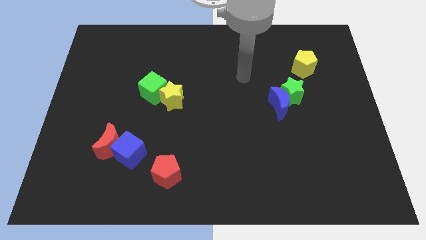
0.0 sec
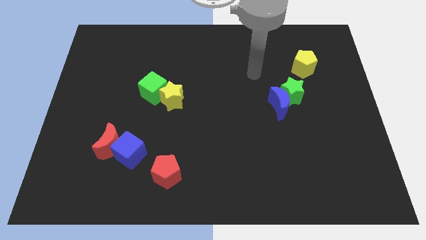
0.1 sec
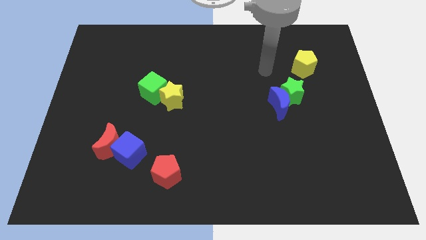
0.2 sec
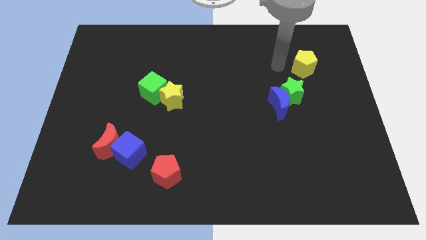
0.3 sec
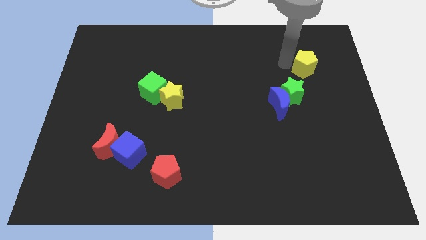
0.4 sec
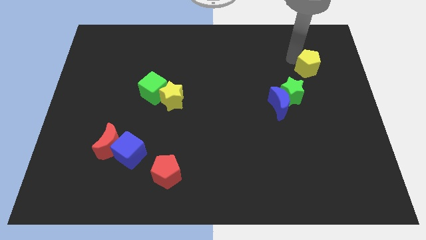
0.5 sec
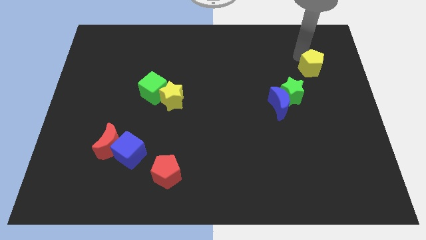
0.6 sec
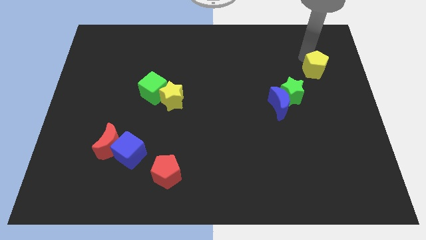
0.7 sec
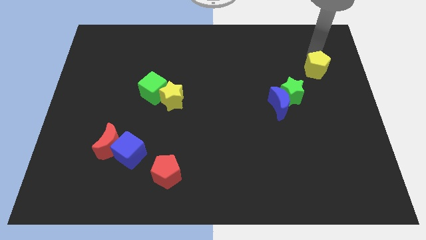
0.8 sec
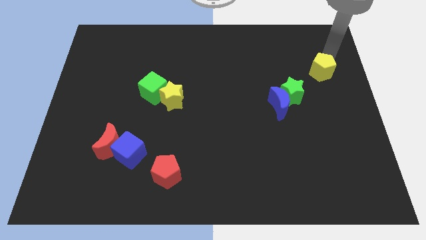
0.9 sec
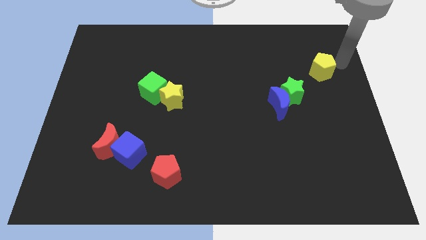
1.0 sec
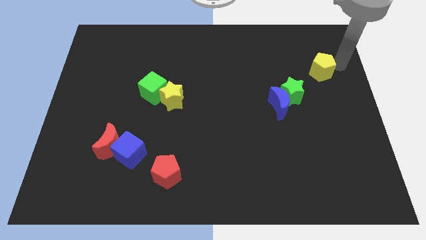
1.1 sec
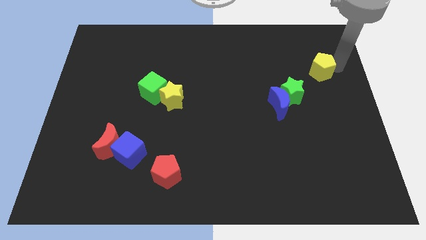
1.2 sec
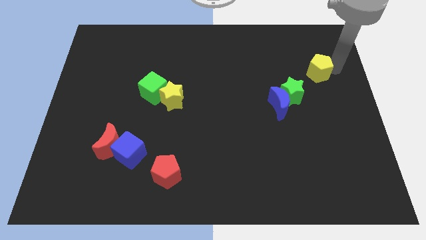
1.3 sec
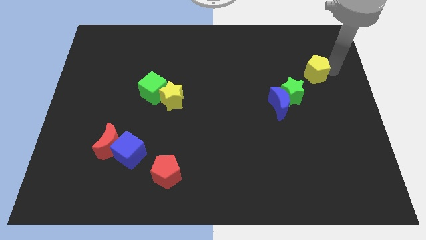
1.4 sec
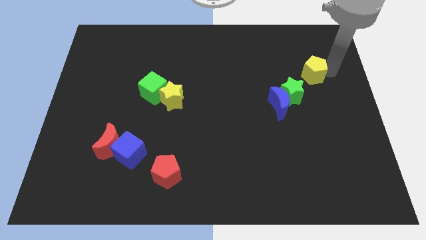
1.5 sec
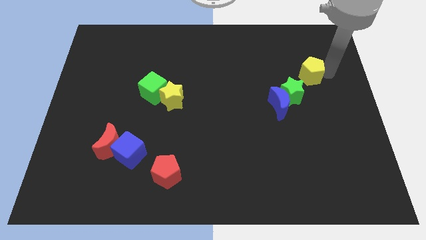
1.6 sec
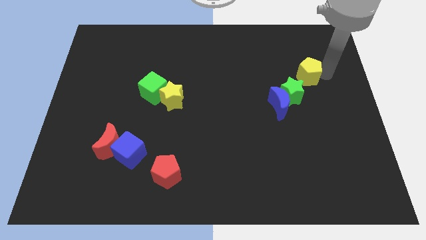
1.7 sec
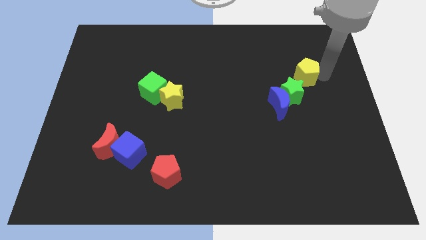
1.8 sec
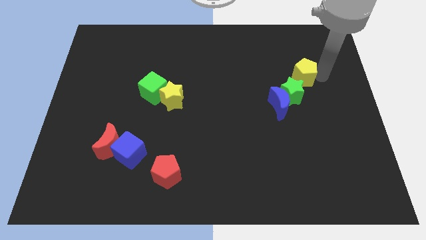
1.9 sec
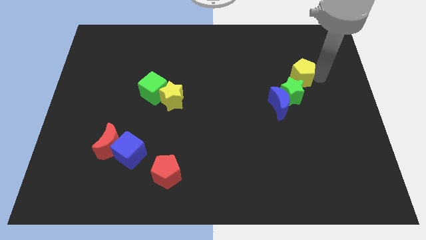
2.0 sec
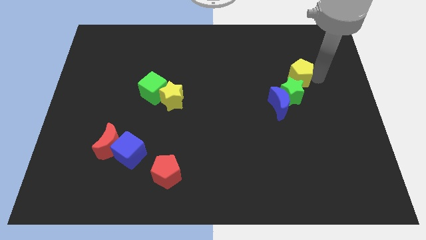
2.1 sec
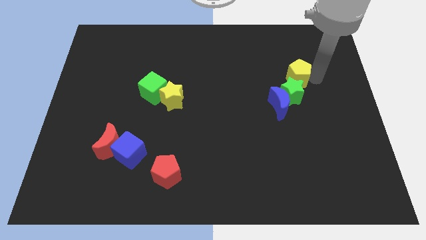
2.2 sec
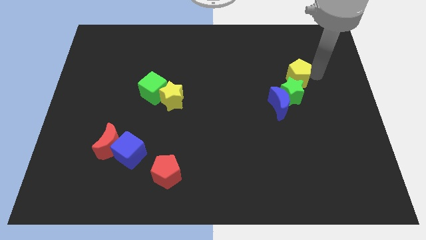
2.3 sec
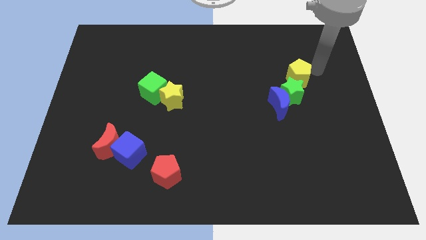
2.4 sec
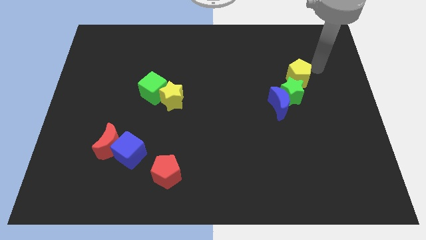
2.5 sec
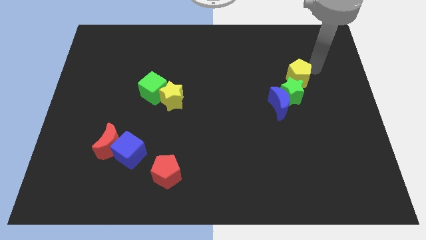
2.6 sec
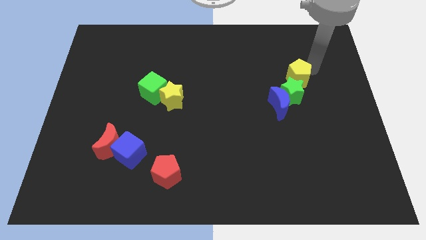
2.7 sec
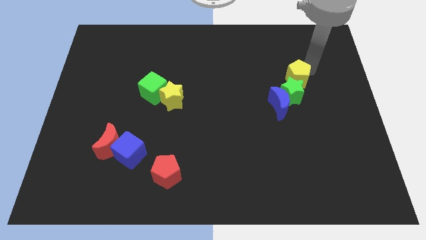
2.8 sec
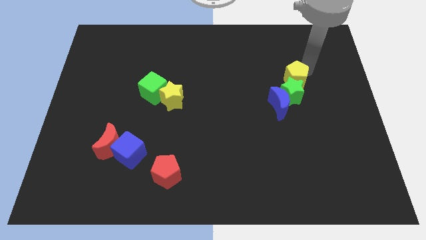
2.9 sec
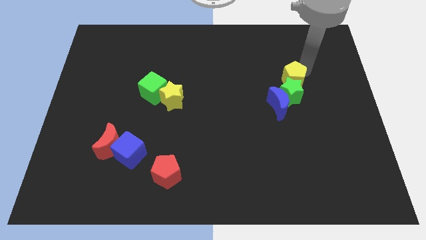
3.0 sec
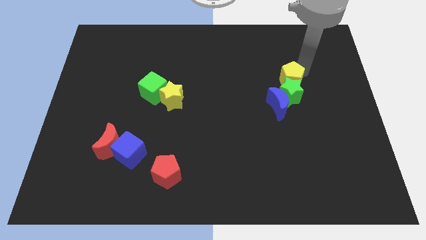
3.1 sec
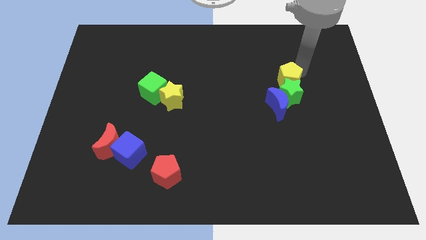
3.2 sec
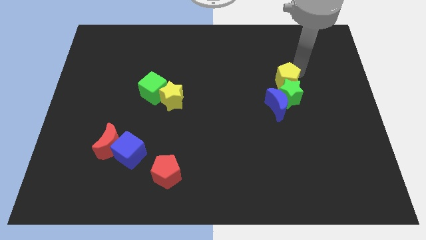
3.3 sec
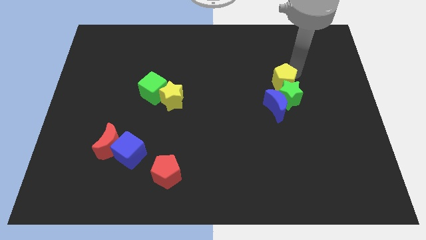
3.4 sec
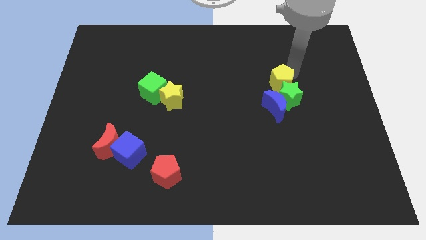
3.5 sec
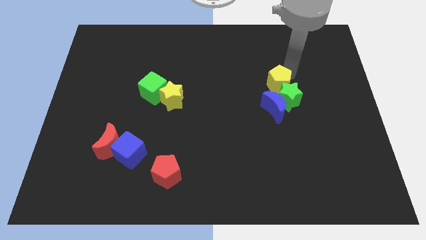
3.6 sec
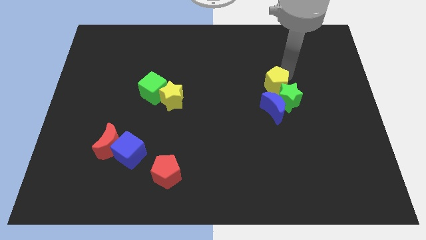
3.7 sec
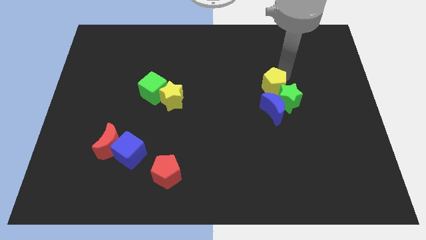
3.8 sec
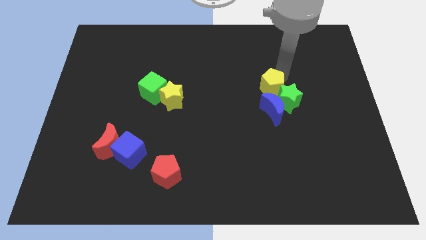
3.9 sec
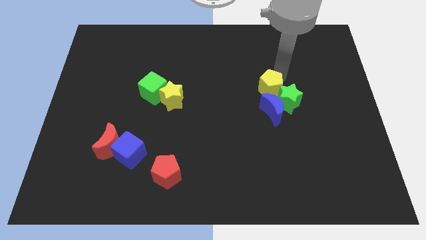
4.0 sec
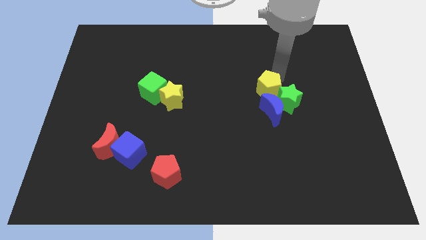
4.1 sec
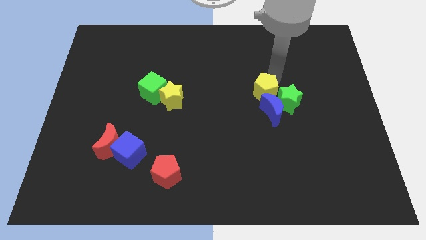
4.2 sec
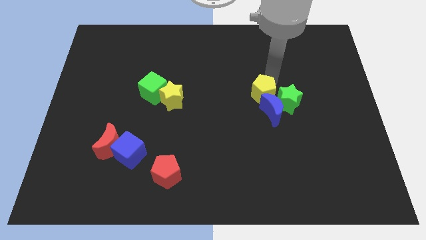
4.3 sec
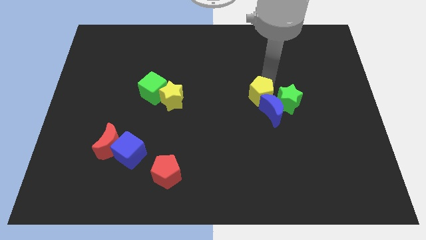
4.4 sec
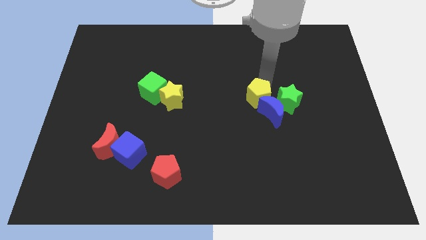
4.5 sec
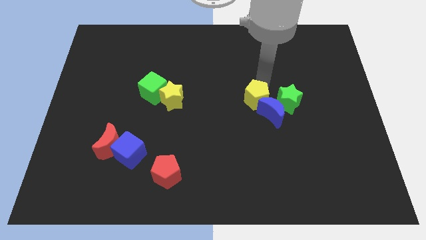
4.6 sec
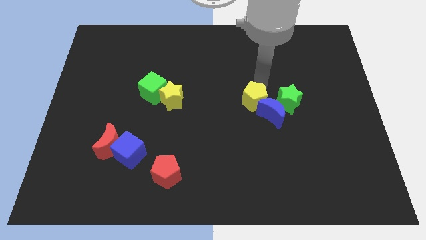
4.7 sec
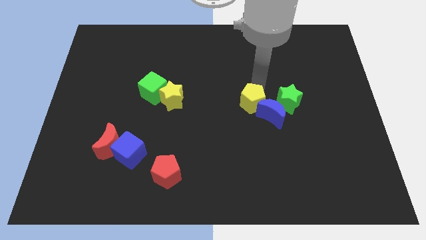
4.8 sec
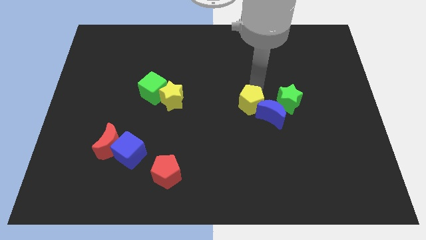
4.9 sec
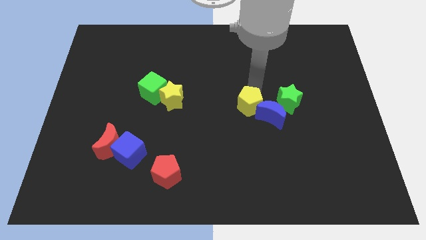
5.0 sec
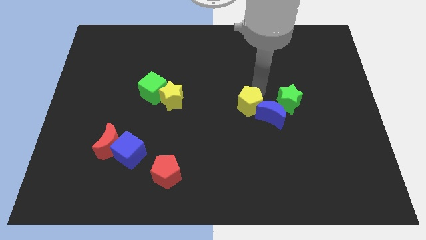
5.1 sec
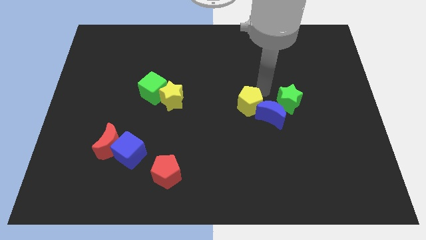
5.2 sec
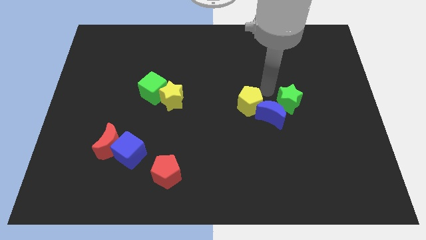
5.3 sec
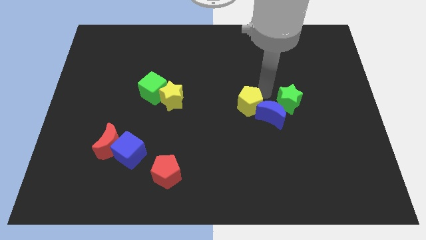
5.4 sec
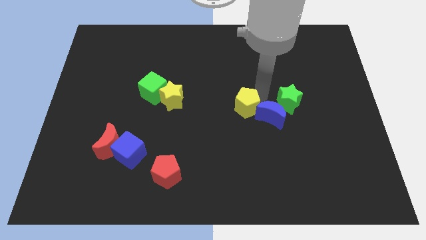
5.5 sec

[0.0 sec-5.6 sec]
move the yellow pentagon diagonally downwards and to the left

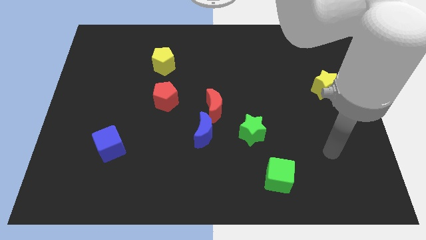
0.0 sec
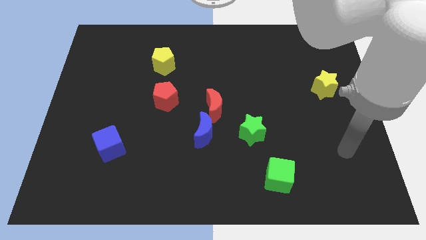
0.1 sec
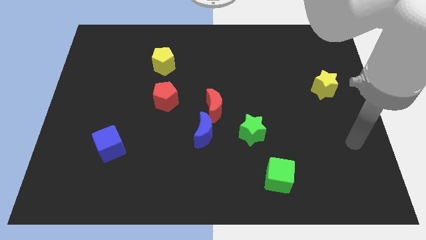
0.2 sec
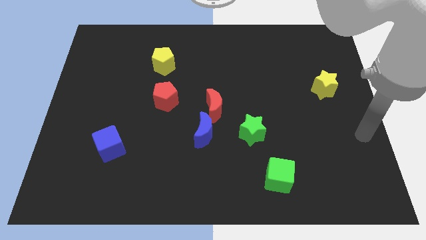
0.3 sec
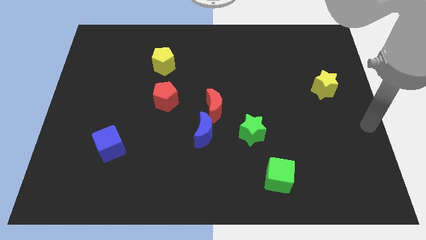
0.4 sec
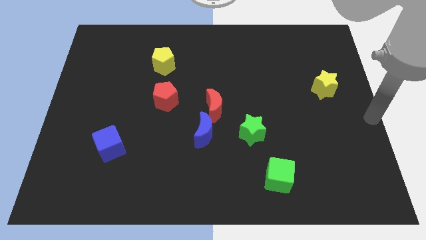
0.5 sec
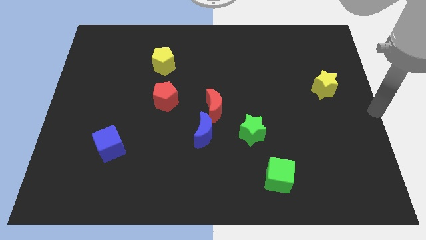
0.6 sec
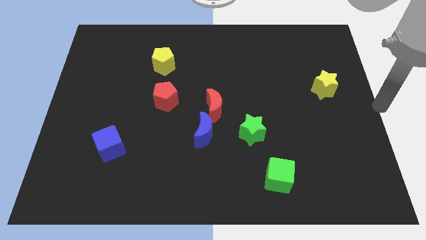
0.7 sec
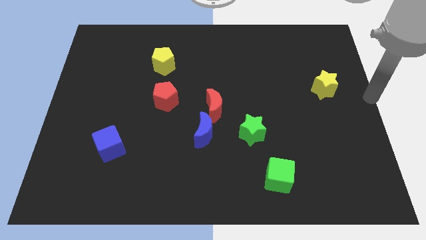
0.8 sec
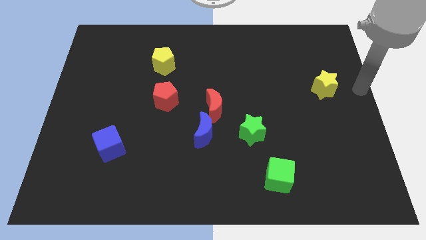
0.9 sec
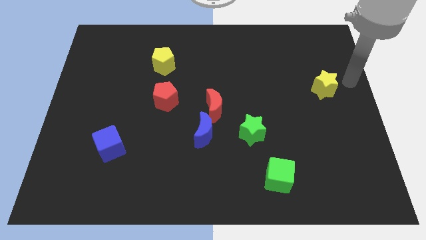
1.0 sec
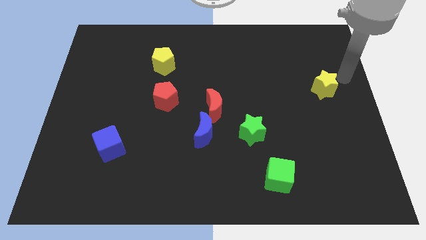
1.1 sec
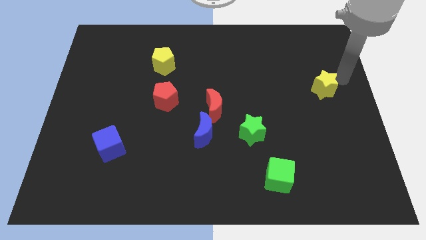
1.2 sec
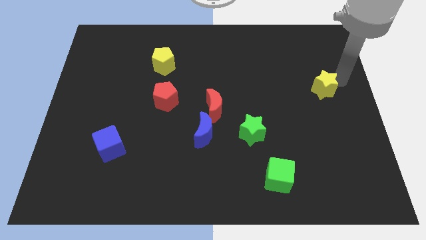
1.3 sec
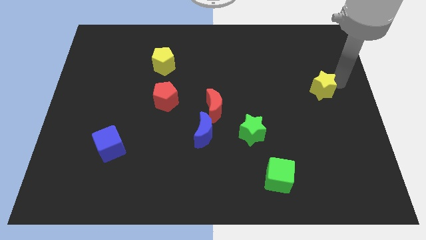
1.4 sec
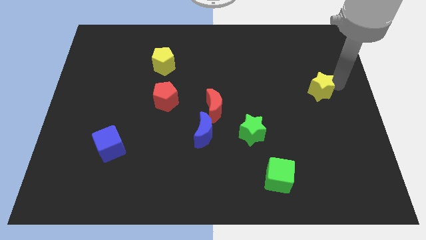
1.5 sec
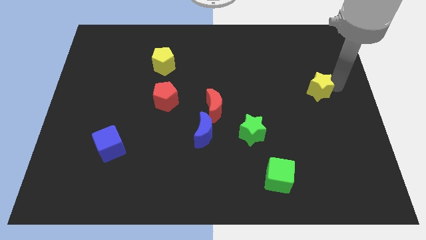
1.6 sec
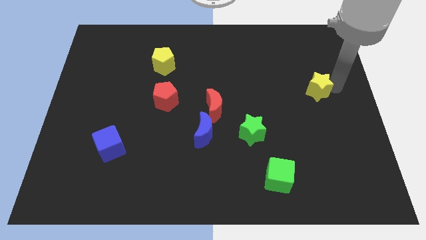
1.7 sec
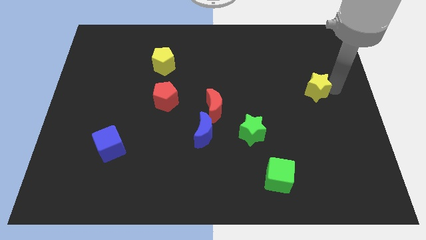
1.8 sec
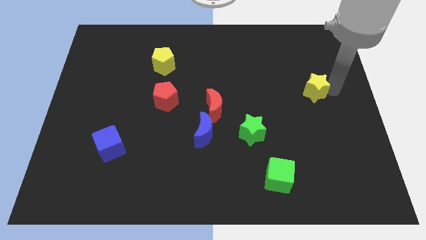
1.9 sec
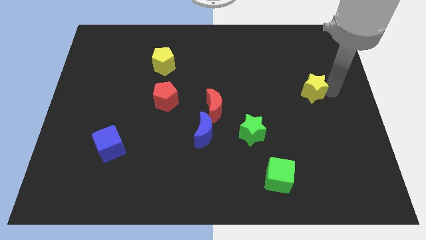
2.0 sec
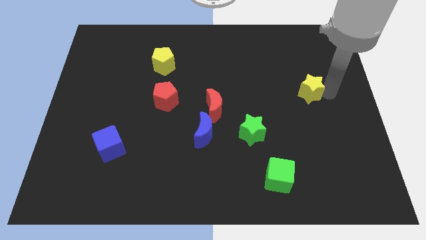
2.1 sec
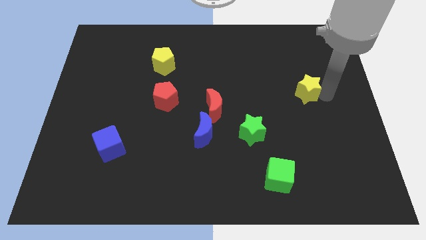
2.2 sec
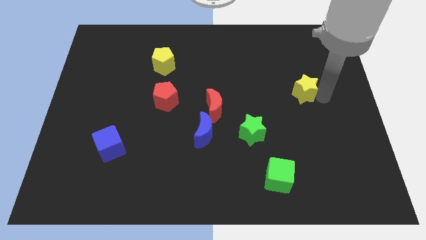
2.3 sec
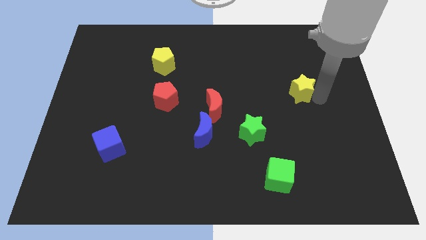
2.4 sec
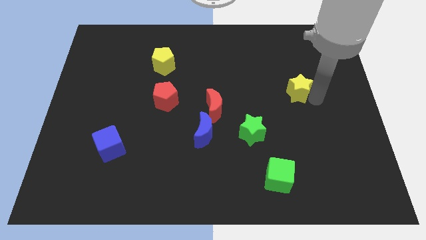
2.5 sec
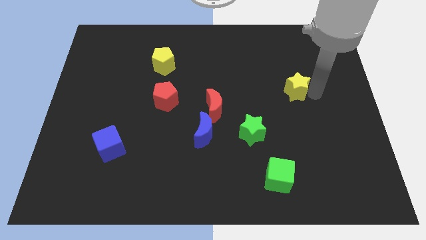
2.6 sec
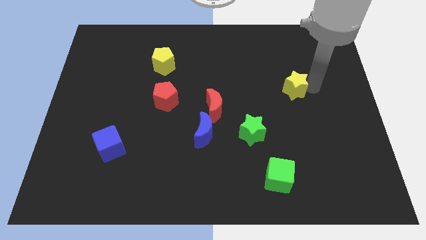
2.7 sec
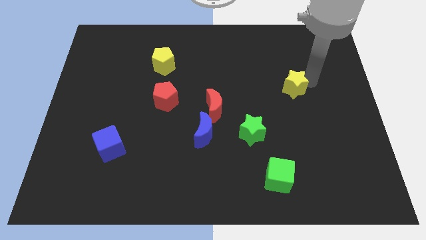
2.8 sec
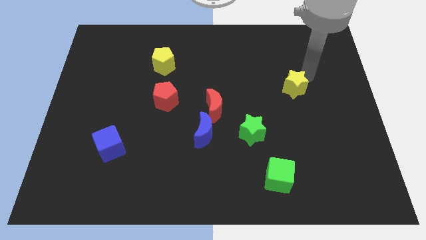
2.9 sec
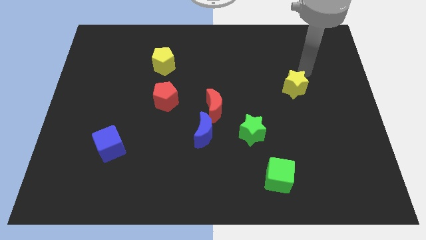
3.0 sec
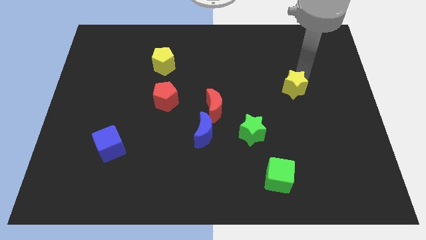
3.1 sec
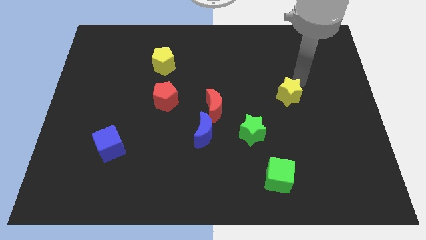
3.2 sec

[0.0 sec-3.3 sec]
move the yellow star down and left diagonally slightly
